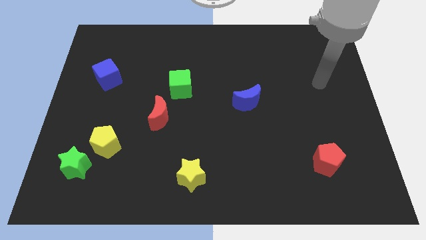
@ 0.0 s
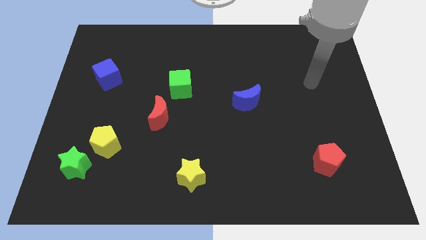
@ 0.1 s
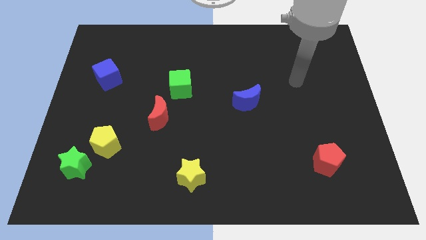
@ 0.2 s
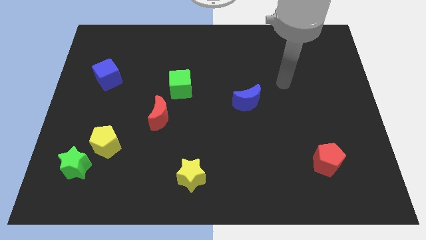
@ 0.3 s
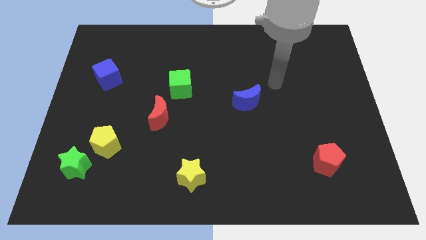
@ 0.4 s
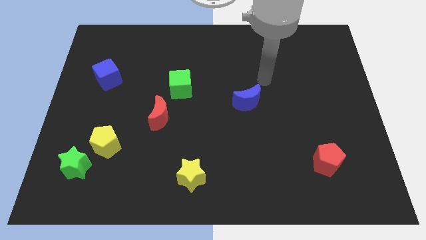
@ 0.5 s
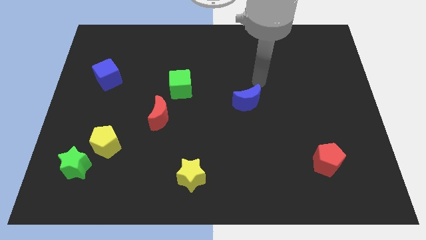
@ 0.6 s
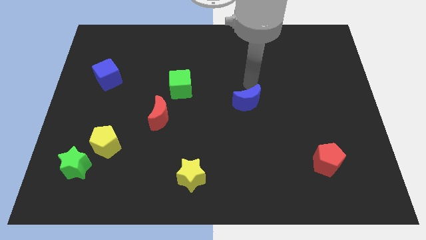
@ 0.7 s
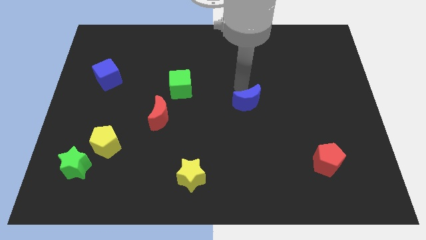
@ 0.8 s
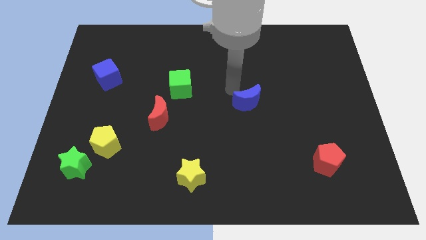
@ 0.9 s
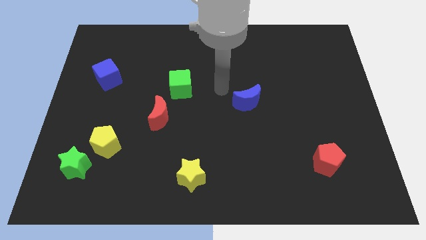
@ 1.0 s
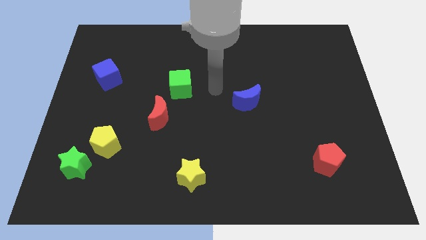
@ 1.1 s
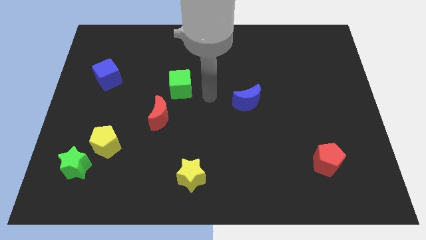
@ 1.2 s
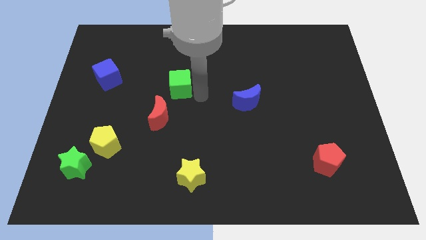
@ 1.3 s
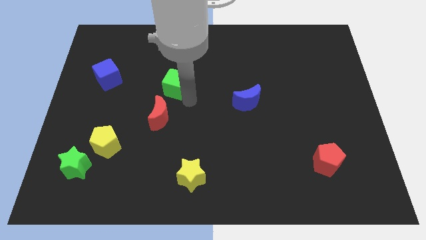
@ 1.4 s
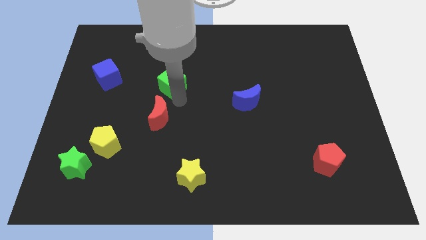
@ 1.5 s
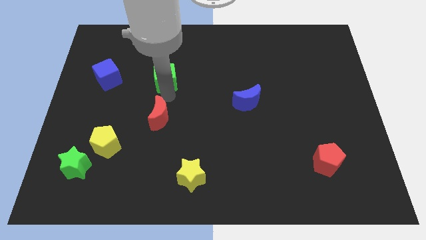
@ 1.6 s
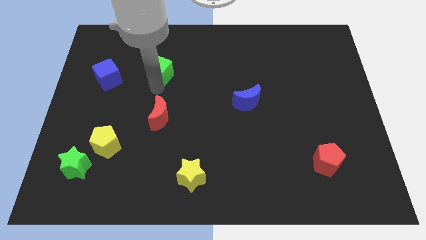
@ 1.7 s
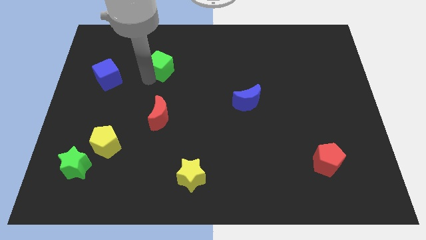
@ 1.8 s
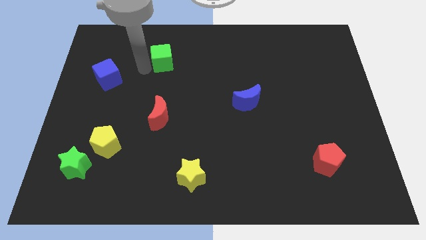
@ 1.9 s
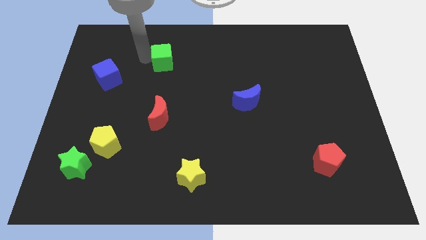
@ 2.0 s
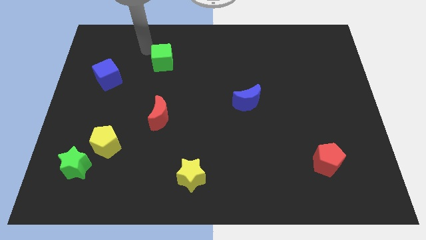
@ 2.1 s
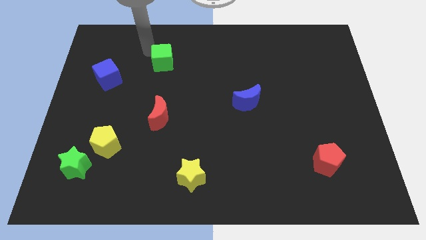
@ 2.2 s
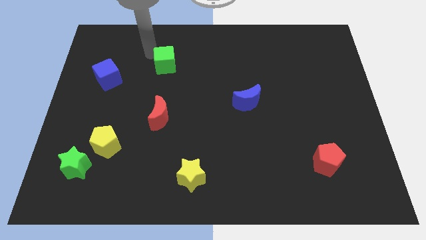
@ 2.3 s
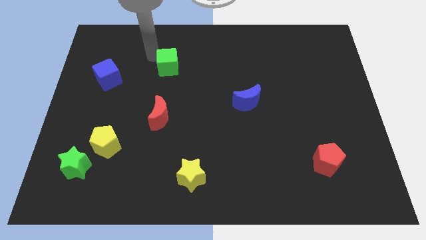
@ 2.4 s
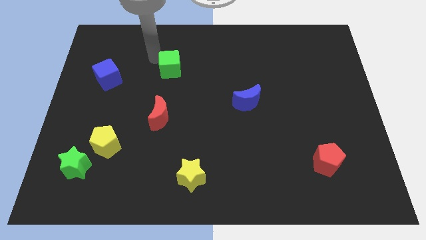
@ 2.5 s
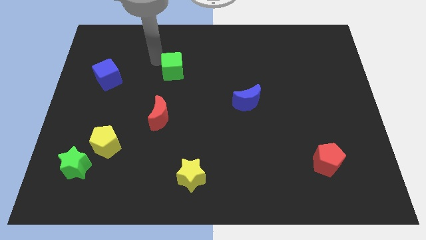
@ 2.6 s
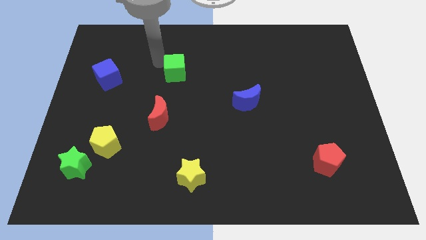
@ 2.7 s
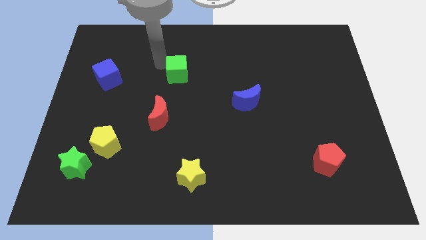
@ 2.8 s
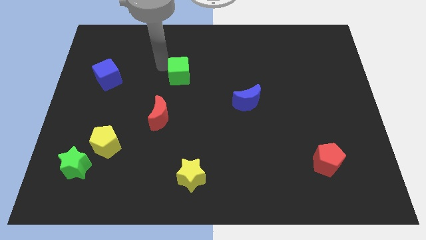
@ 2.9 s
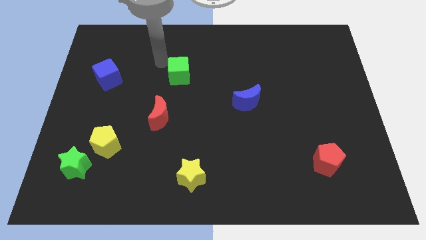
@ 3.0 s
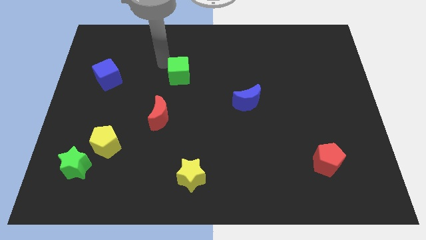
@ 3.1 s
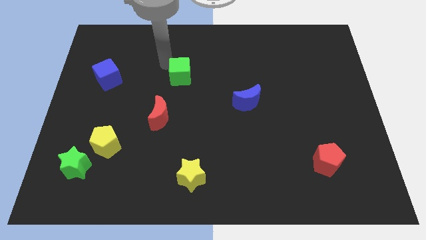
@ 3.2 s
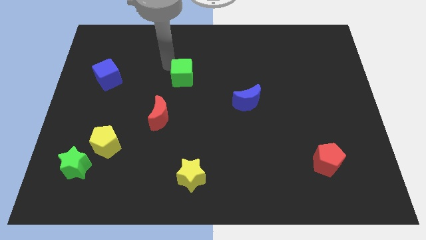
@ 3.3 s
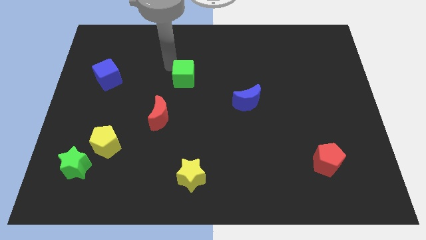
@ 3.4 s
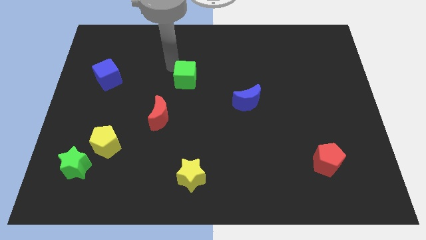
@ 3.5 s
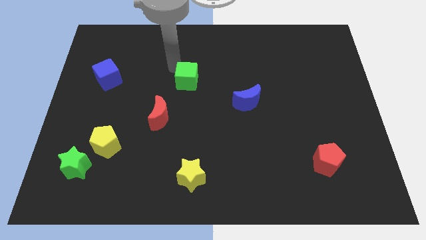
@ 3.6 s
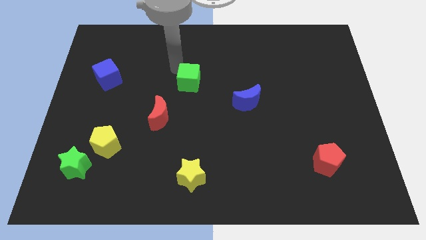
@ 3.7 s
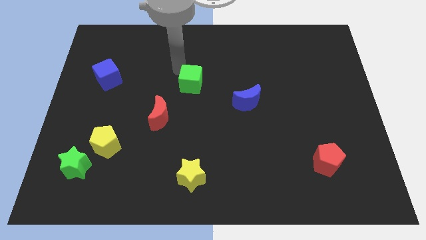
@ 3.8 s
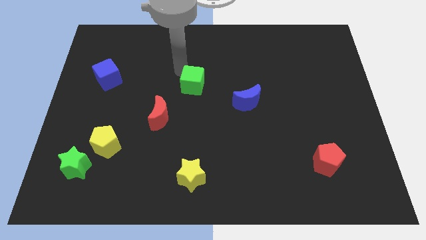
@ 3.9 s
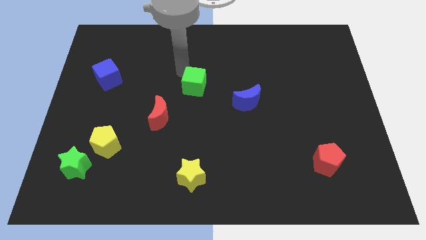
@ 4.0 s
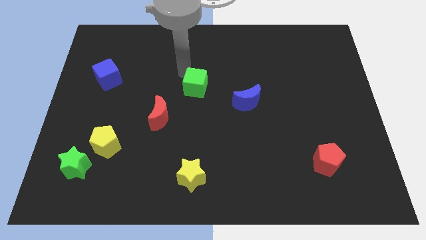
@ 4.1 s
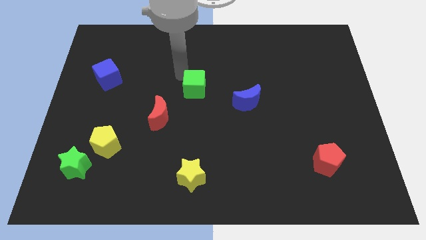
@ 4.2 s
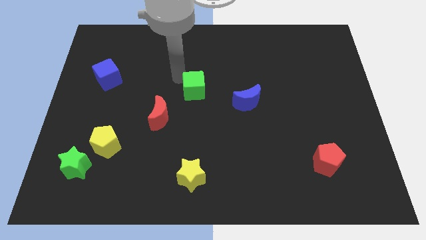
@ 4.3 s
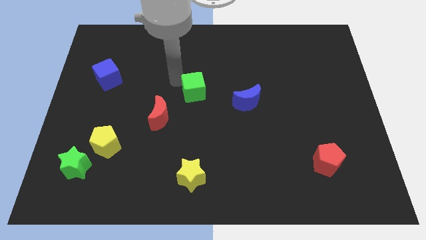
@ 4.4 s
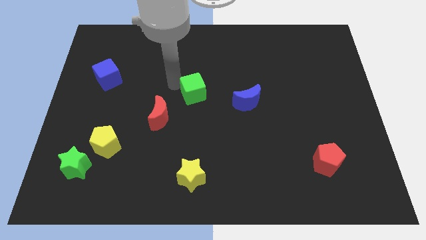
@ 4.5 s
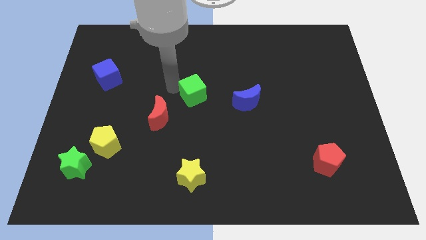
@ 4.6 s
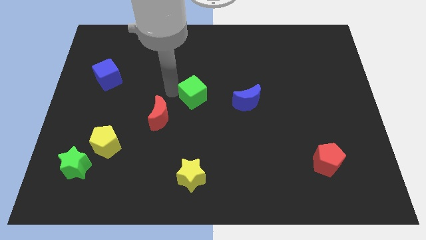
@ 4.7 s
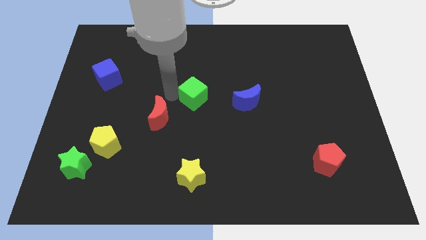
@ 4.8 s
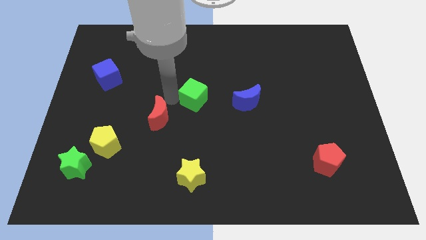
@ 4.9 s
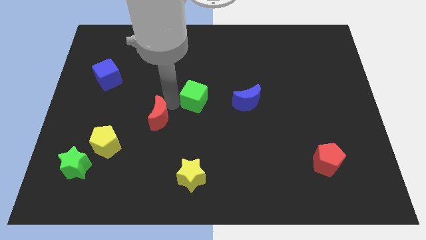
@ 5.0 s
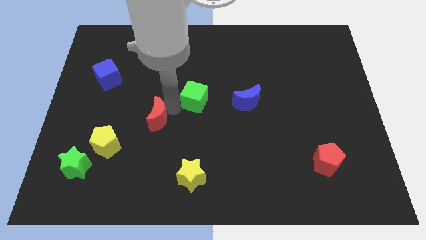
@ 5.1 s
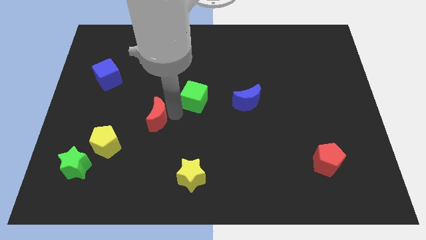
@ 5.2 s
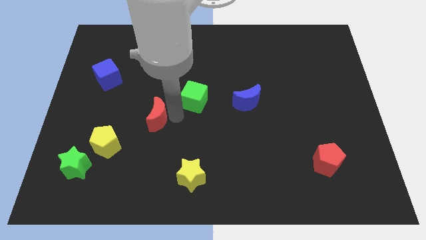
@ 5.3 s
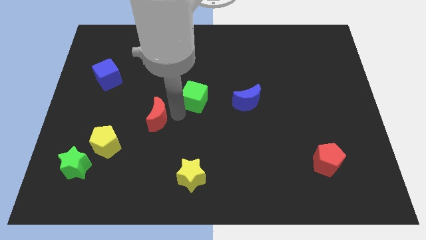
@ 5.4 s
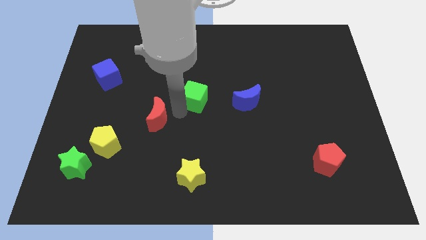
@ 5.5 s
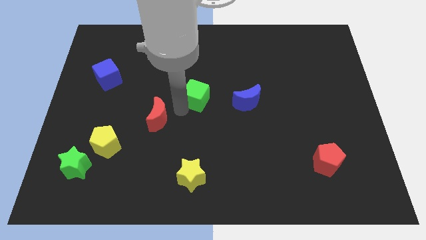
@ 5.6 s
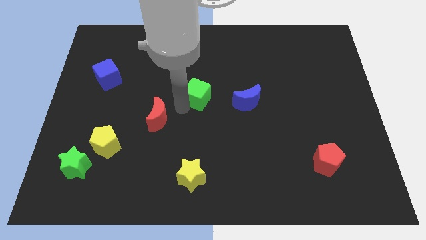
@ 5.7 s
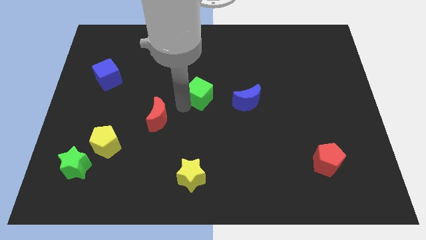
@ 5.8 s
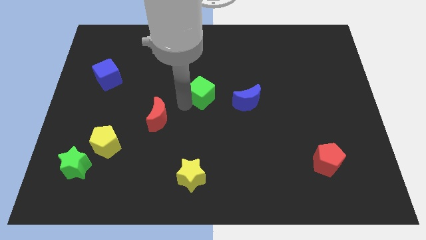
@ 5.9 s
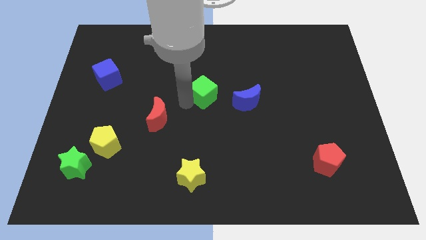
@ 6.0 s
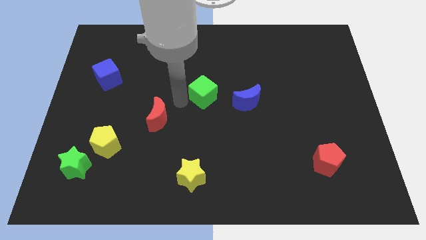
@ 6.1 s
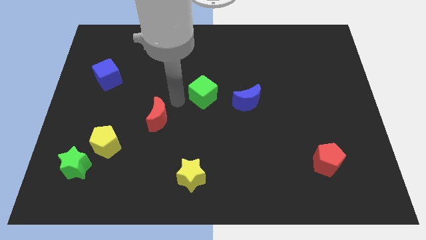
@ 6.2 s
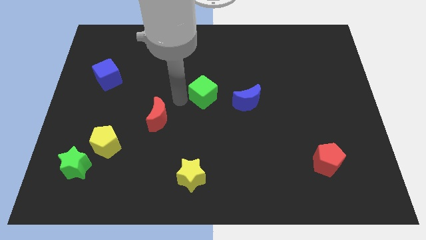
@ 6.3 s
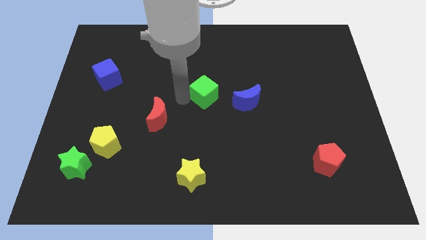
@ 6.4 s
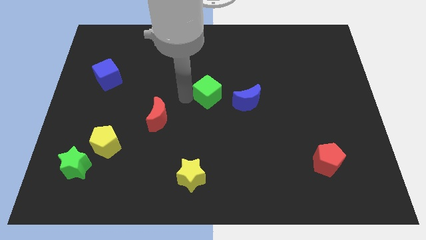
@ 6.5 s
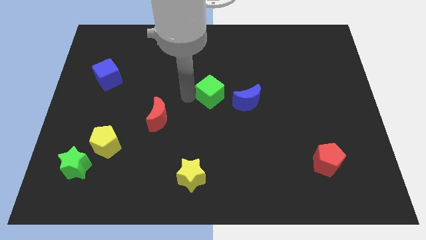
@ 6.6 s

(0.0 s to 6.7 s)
slightly slide the green cube right

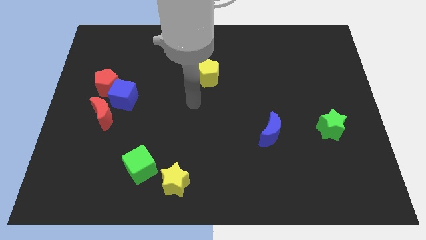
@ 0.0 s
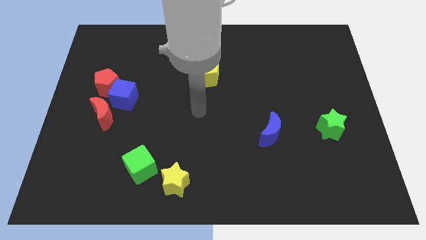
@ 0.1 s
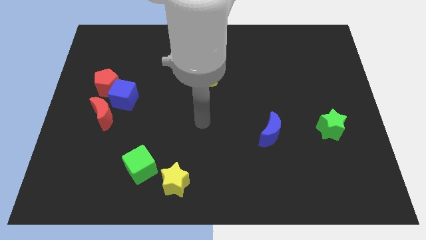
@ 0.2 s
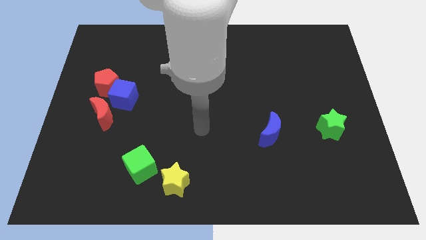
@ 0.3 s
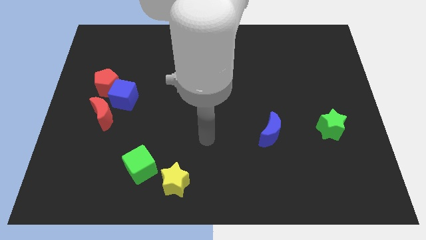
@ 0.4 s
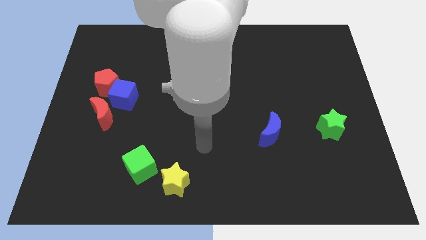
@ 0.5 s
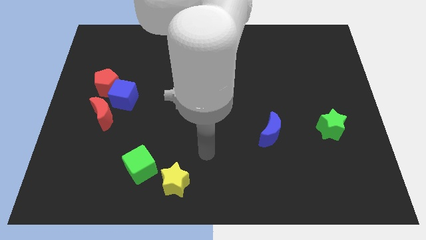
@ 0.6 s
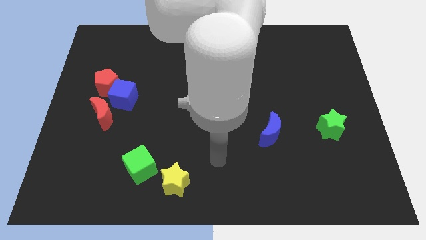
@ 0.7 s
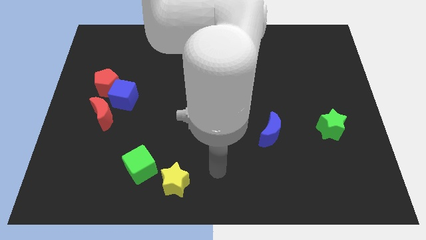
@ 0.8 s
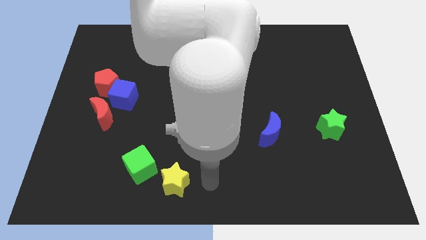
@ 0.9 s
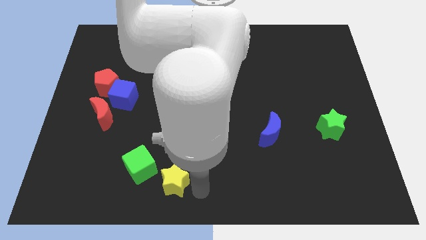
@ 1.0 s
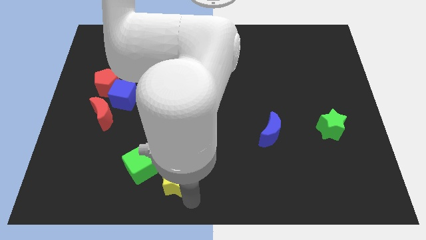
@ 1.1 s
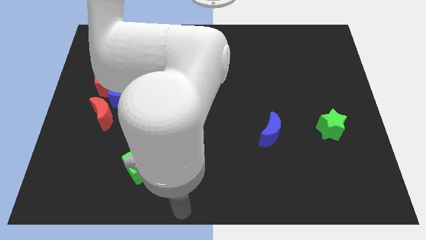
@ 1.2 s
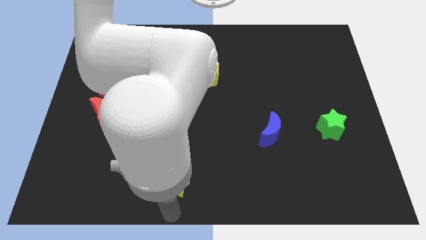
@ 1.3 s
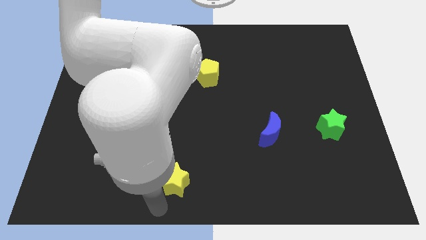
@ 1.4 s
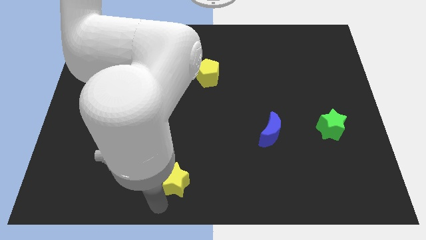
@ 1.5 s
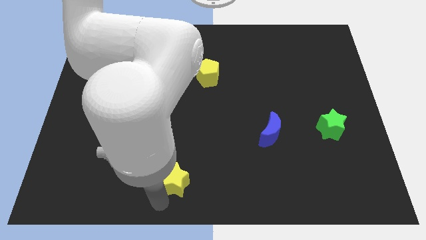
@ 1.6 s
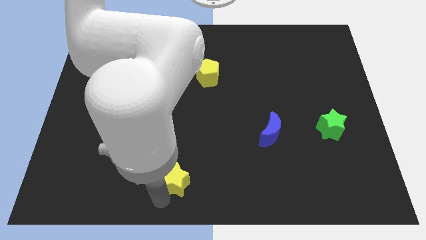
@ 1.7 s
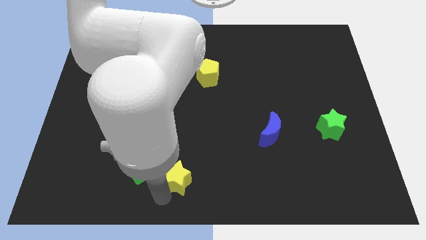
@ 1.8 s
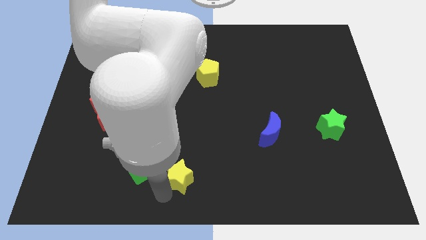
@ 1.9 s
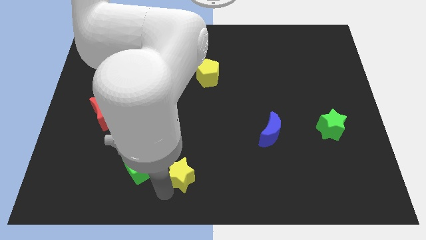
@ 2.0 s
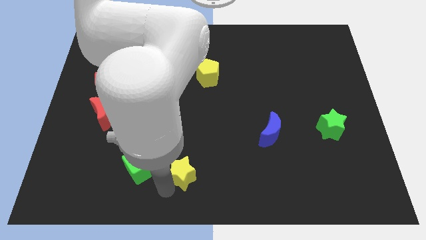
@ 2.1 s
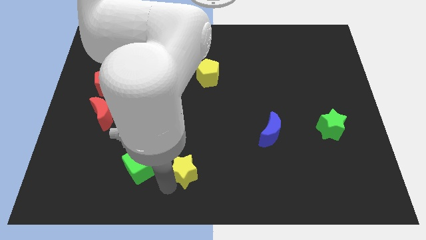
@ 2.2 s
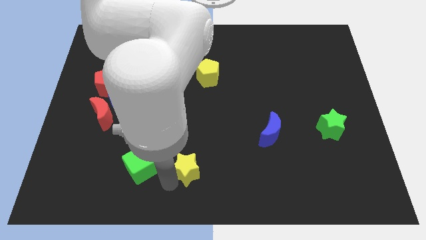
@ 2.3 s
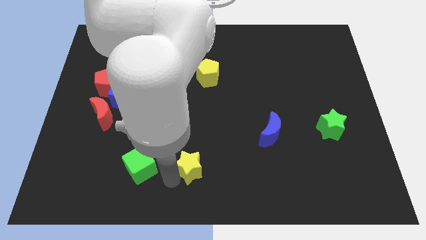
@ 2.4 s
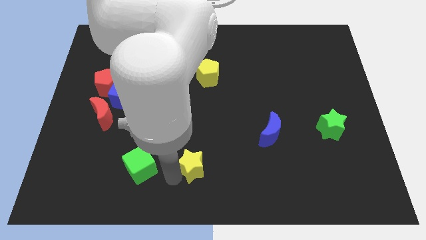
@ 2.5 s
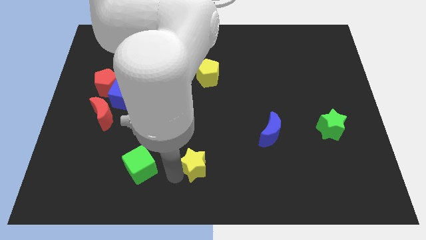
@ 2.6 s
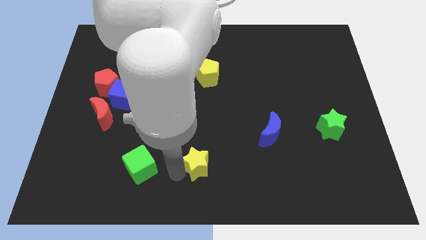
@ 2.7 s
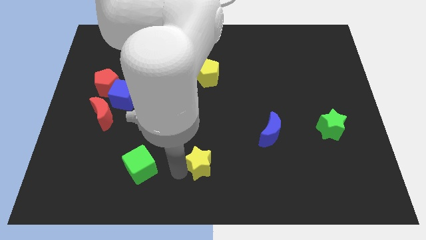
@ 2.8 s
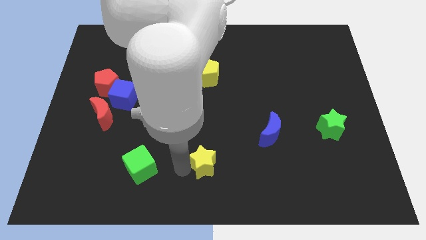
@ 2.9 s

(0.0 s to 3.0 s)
push the yellow star upwards and to the right diagonally a little bit
